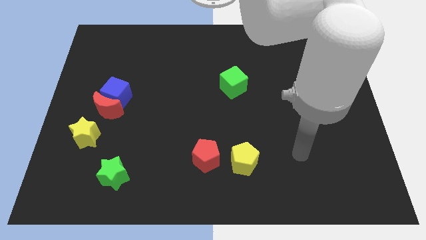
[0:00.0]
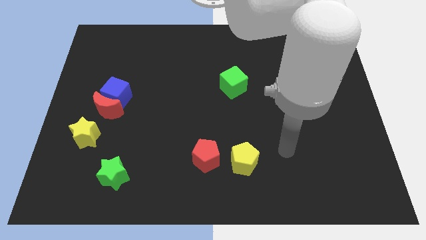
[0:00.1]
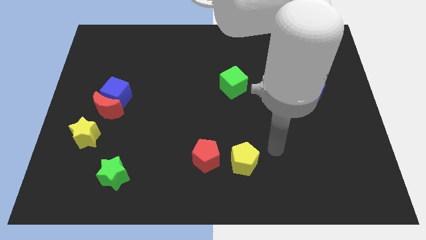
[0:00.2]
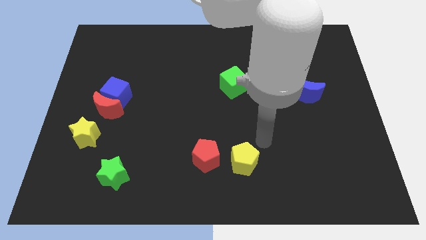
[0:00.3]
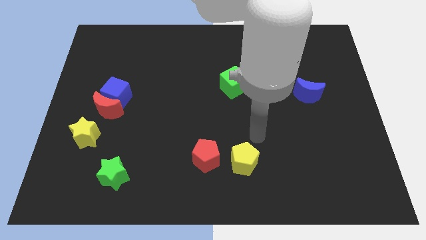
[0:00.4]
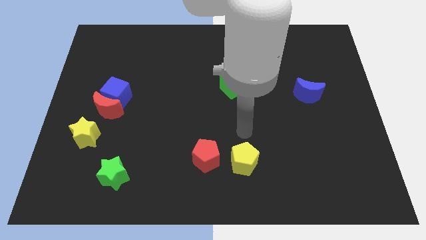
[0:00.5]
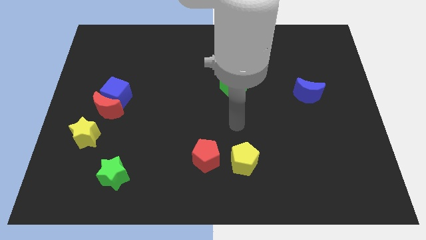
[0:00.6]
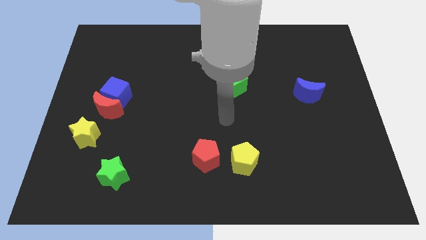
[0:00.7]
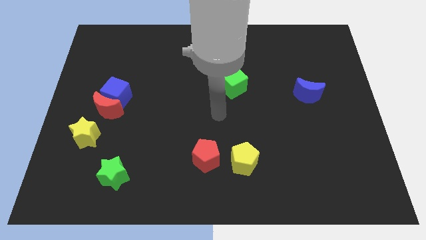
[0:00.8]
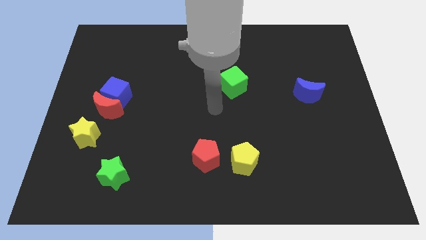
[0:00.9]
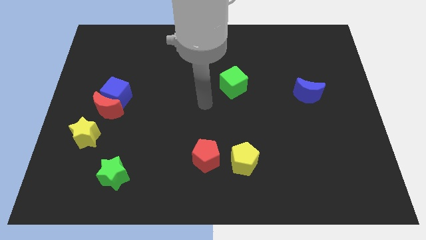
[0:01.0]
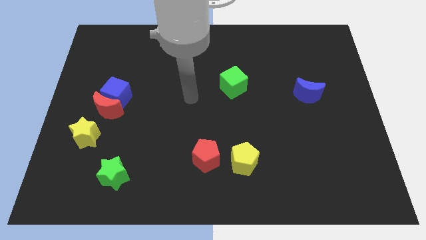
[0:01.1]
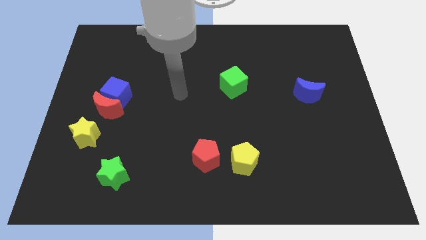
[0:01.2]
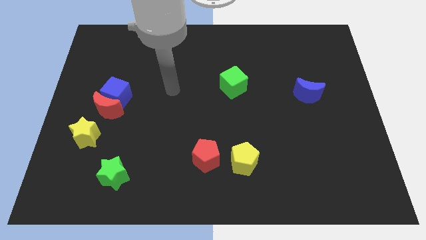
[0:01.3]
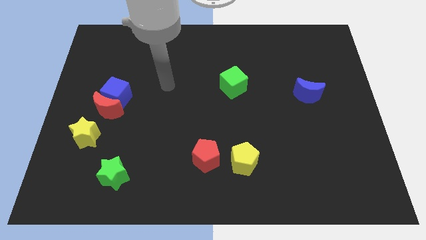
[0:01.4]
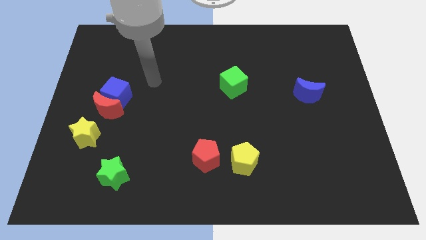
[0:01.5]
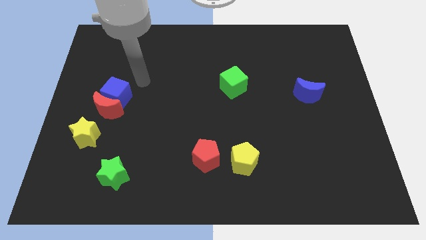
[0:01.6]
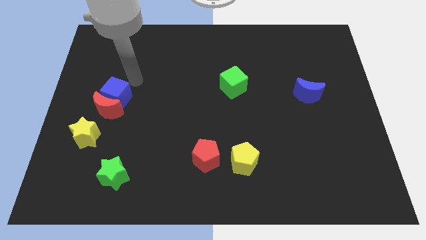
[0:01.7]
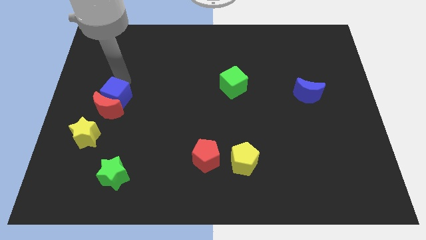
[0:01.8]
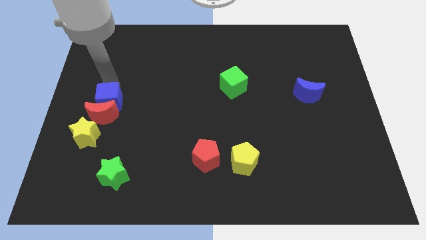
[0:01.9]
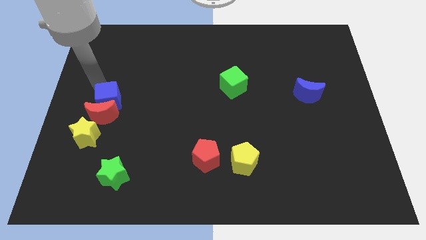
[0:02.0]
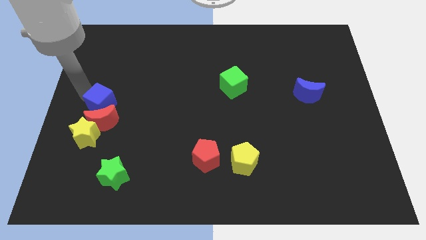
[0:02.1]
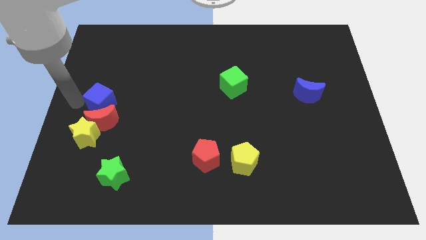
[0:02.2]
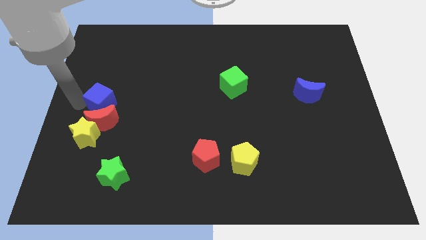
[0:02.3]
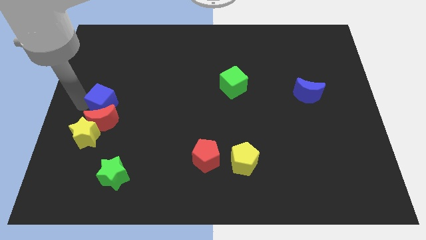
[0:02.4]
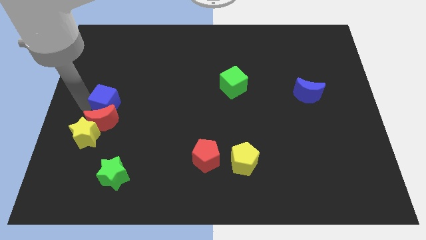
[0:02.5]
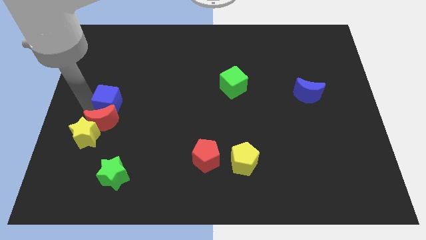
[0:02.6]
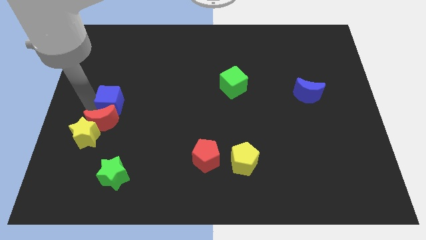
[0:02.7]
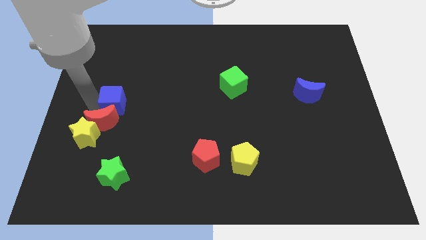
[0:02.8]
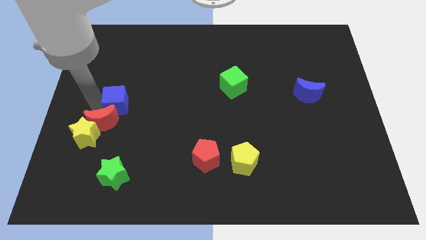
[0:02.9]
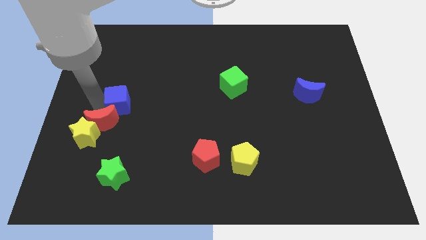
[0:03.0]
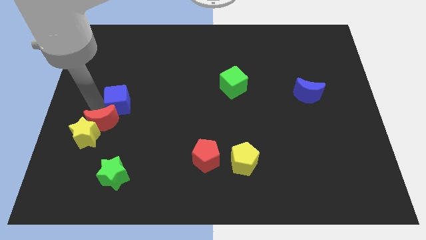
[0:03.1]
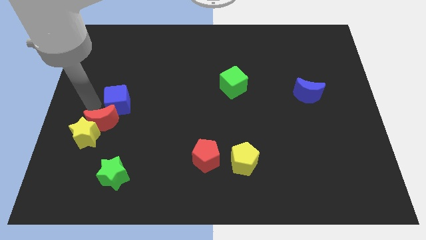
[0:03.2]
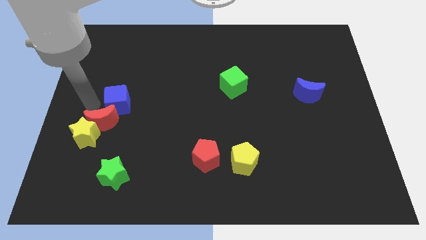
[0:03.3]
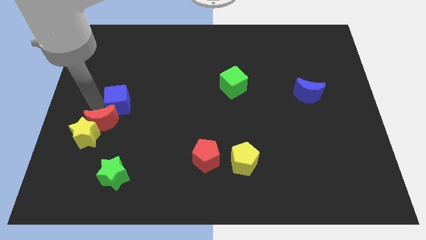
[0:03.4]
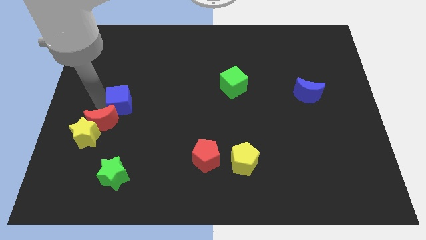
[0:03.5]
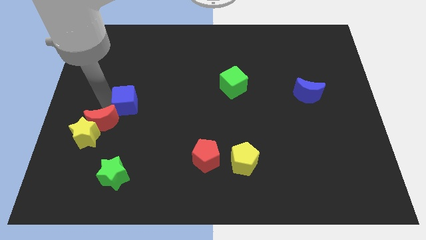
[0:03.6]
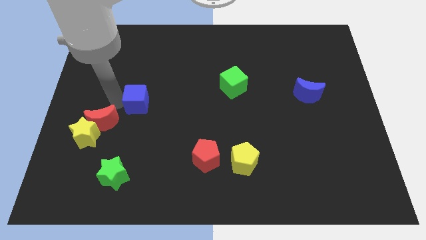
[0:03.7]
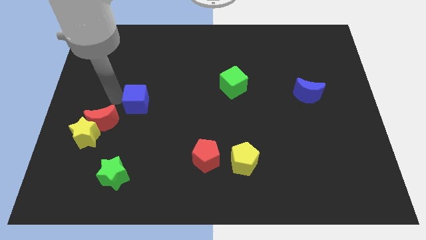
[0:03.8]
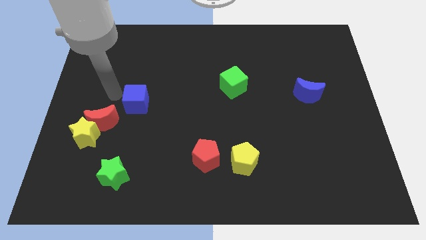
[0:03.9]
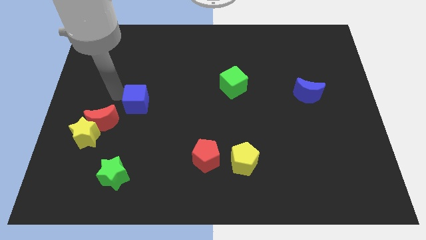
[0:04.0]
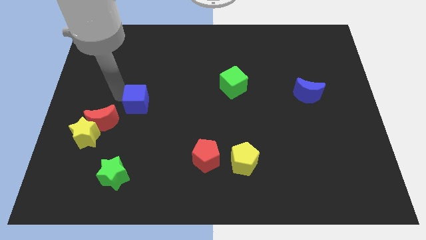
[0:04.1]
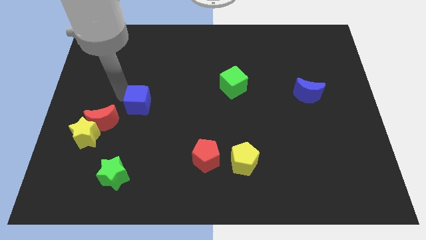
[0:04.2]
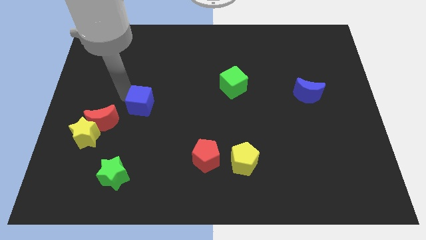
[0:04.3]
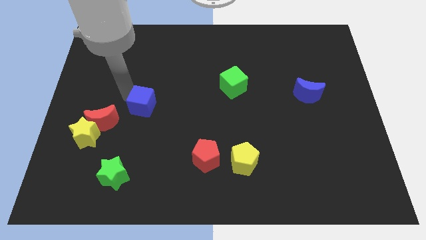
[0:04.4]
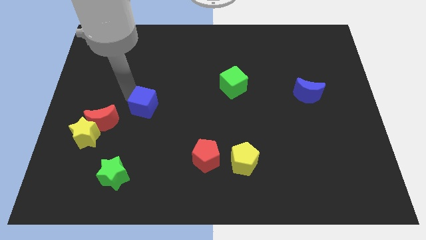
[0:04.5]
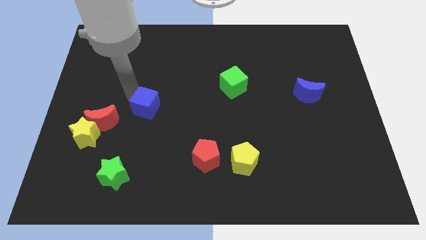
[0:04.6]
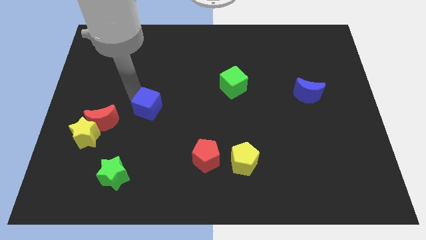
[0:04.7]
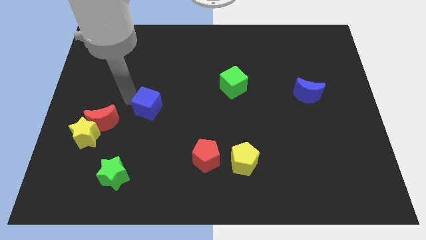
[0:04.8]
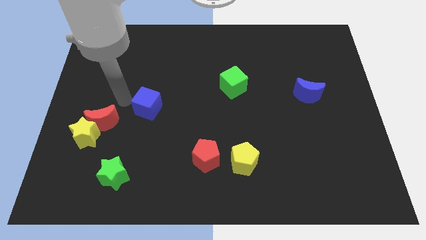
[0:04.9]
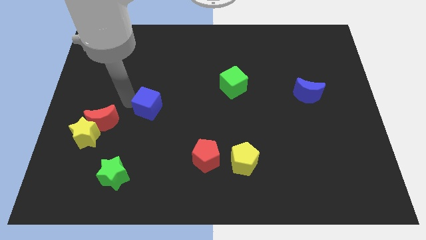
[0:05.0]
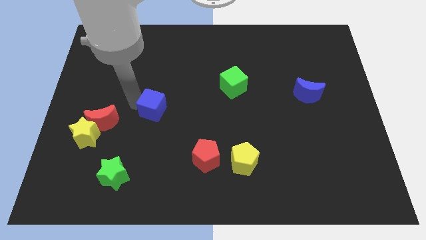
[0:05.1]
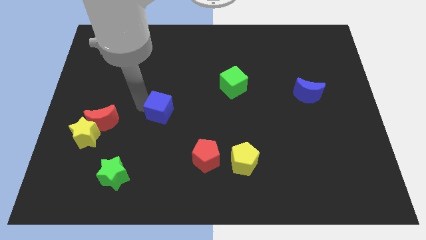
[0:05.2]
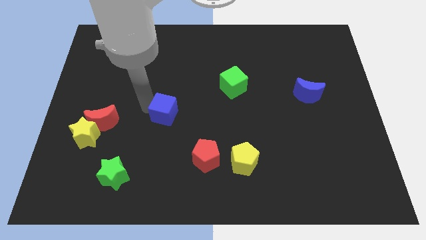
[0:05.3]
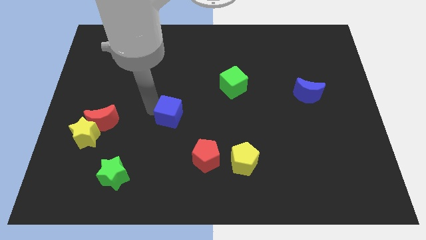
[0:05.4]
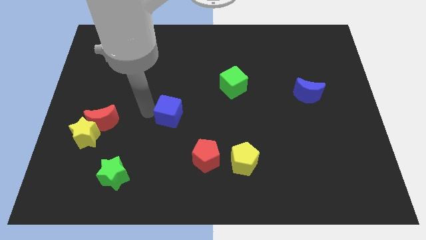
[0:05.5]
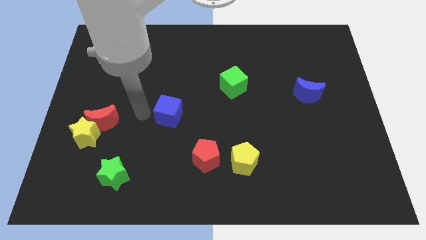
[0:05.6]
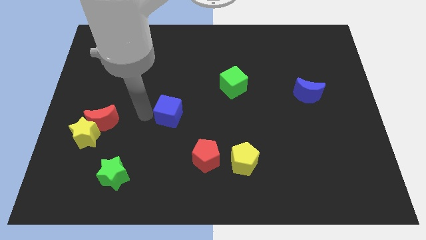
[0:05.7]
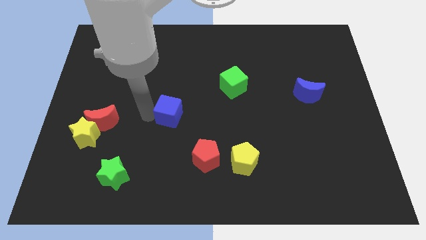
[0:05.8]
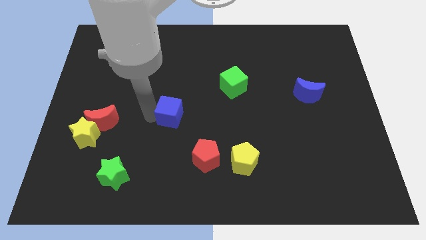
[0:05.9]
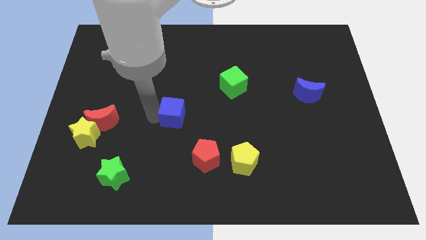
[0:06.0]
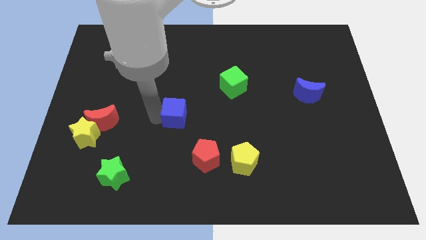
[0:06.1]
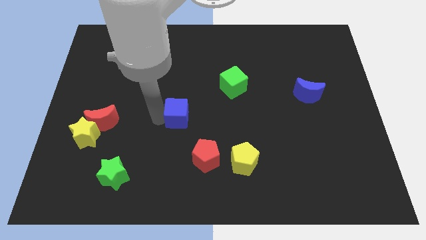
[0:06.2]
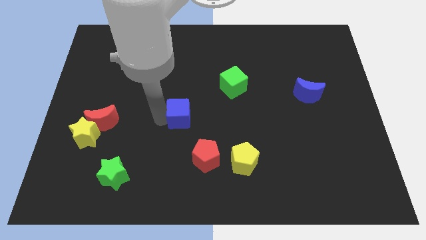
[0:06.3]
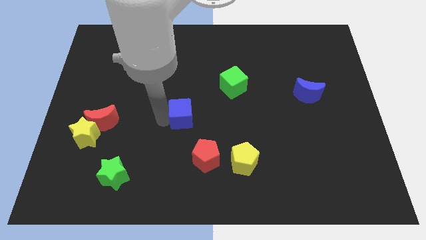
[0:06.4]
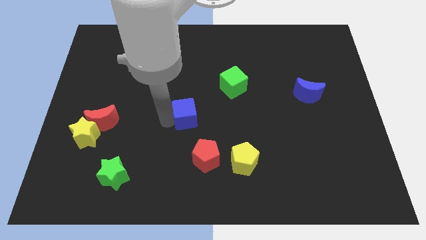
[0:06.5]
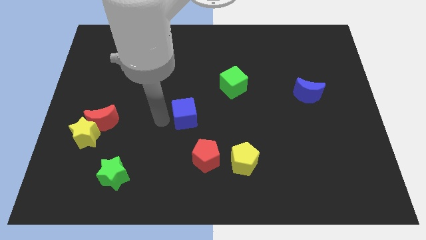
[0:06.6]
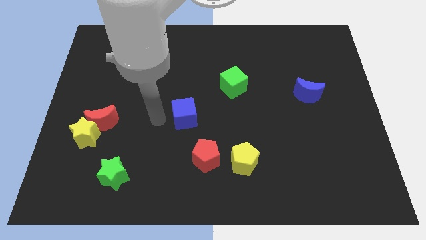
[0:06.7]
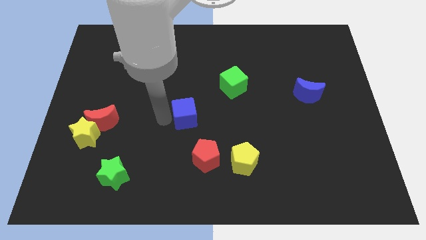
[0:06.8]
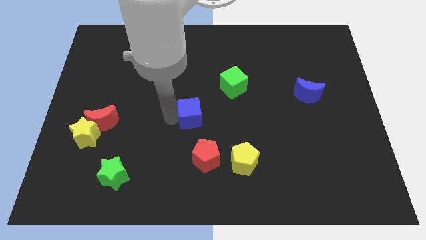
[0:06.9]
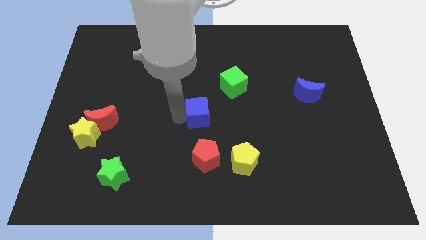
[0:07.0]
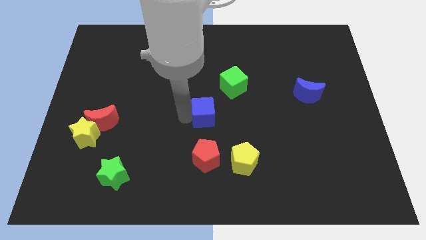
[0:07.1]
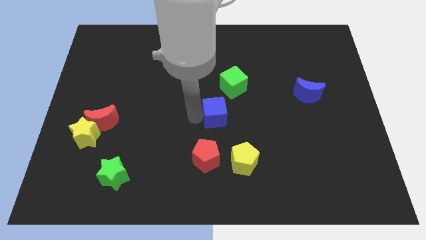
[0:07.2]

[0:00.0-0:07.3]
move the blue cube right

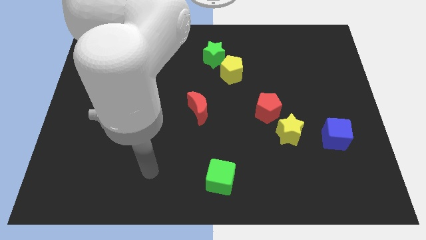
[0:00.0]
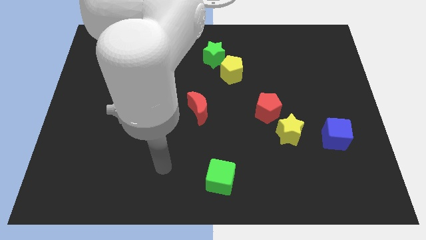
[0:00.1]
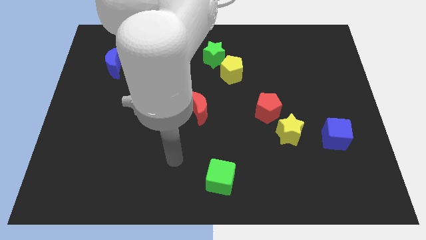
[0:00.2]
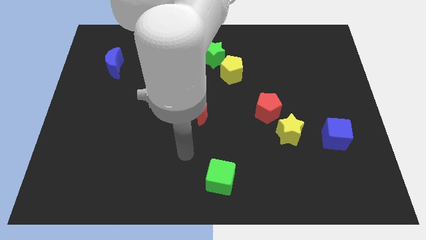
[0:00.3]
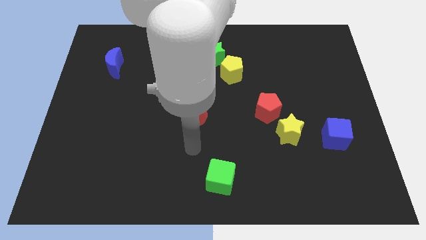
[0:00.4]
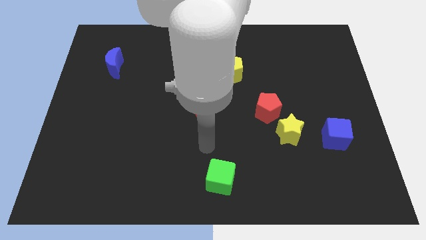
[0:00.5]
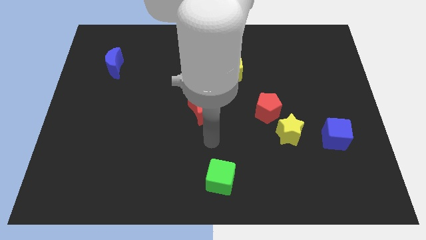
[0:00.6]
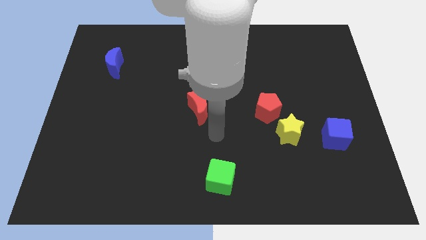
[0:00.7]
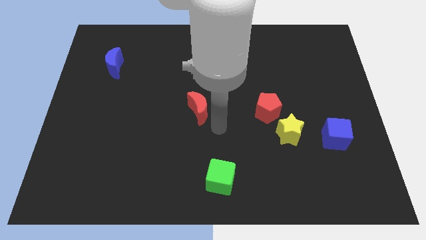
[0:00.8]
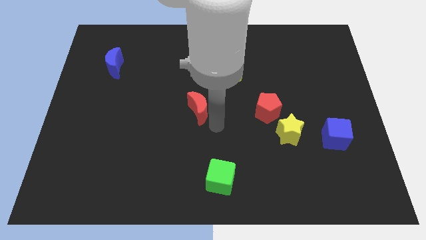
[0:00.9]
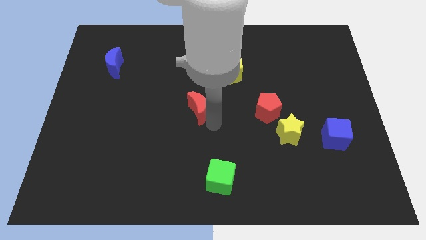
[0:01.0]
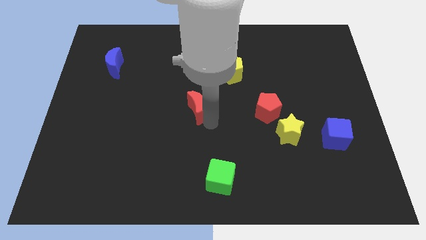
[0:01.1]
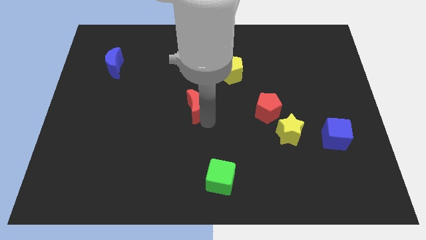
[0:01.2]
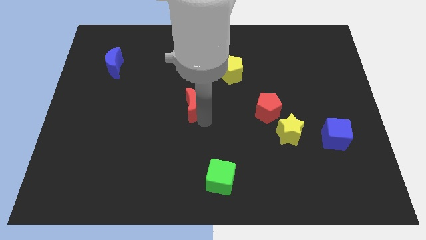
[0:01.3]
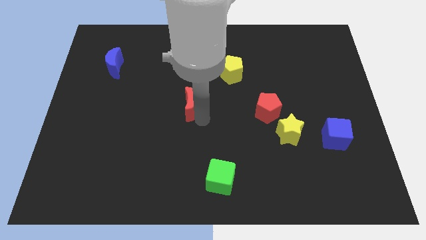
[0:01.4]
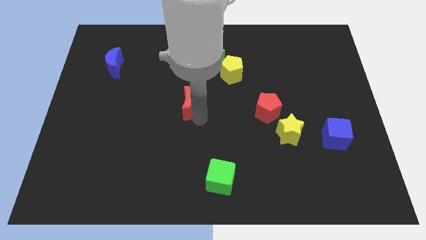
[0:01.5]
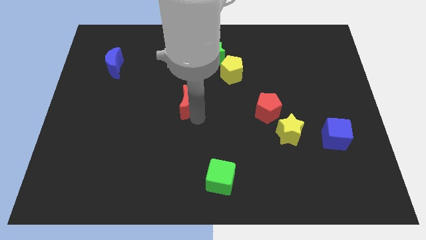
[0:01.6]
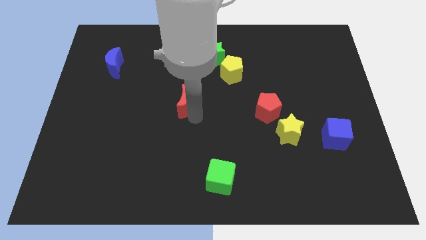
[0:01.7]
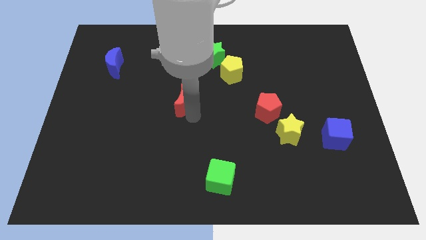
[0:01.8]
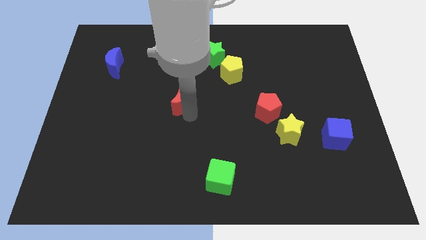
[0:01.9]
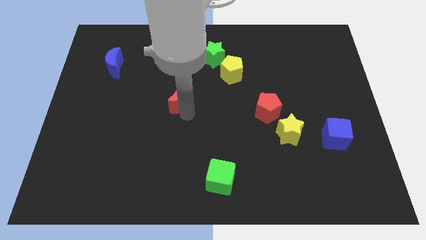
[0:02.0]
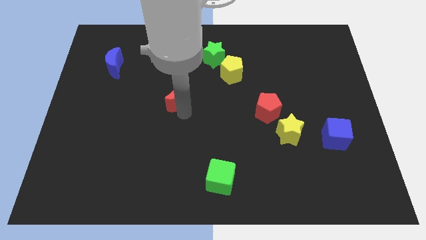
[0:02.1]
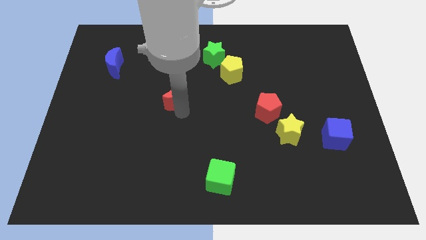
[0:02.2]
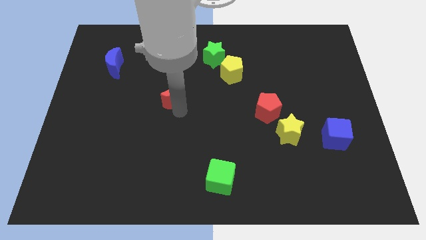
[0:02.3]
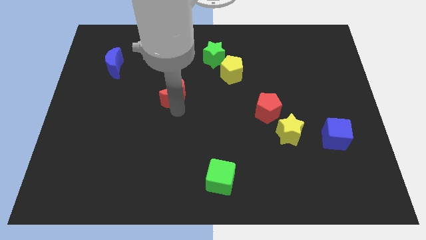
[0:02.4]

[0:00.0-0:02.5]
push the red moon up and then to the left slightly
